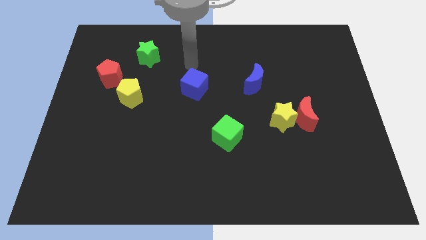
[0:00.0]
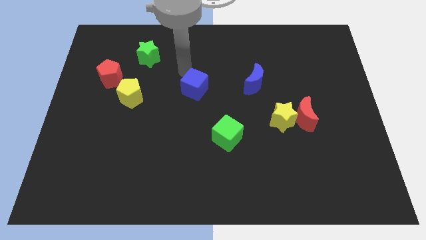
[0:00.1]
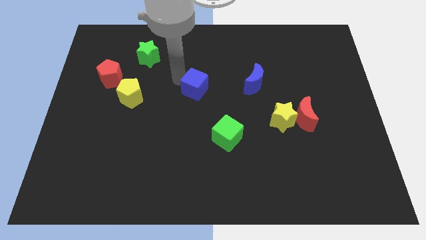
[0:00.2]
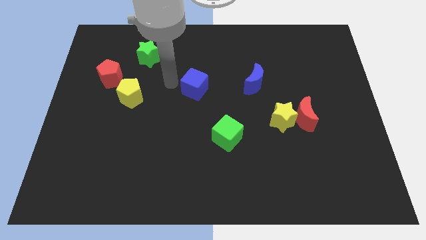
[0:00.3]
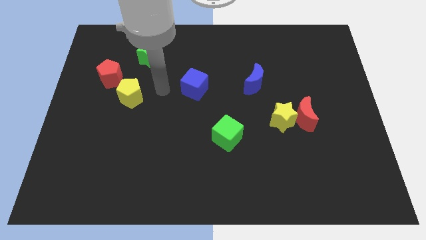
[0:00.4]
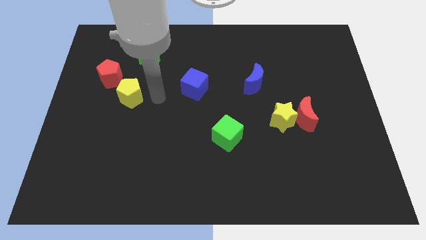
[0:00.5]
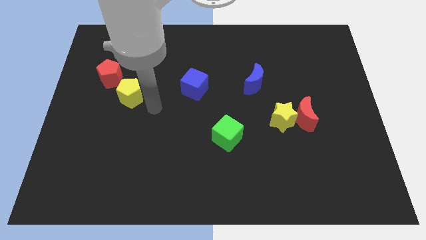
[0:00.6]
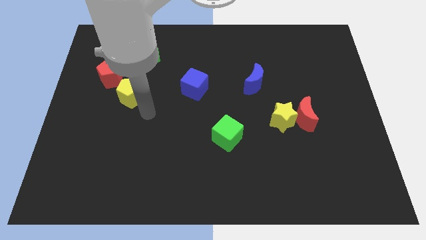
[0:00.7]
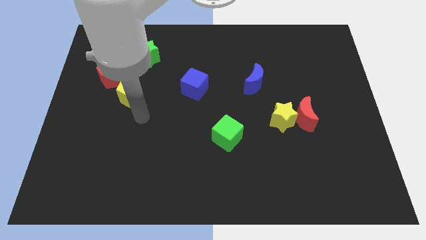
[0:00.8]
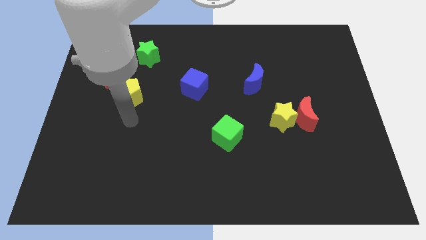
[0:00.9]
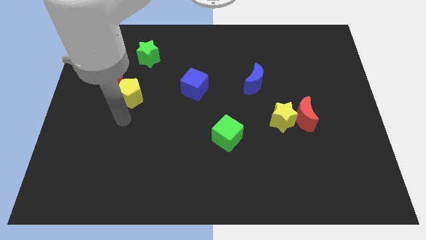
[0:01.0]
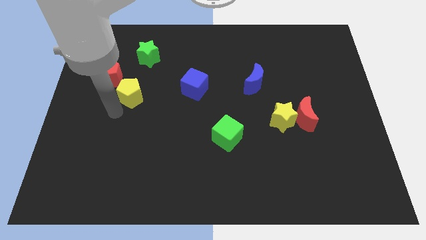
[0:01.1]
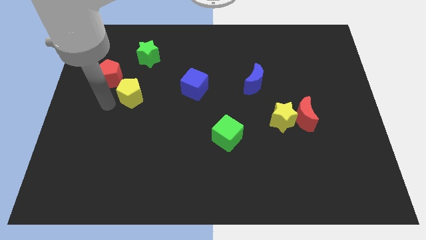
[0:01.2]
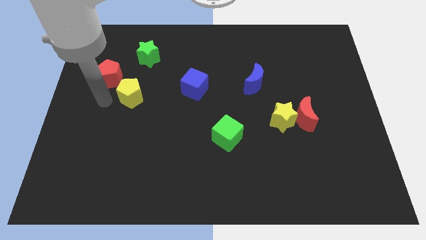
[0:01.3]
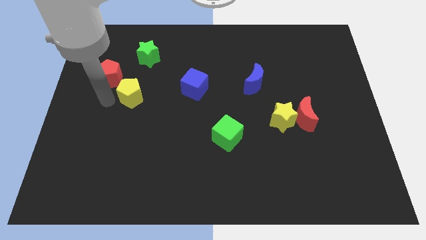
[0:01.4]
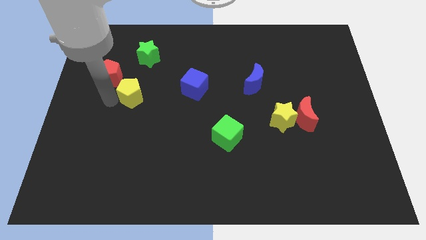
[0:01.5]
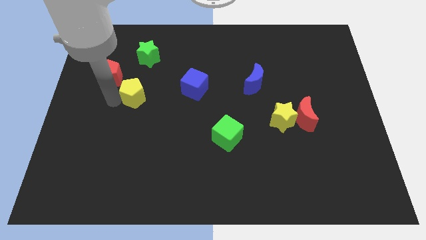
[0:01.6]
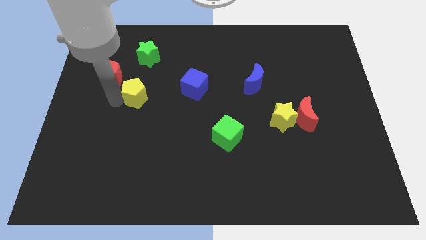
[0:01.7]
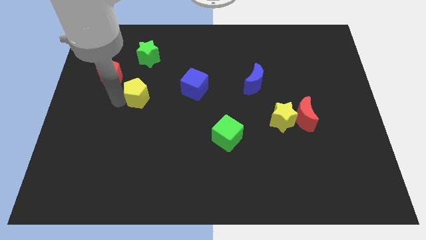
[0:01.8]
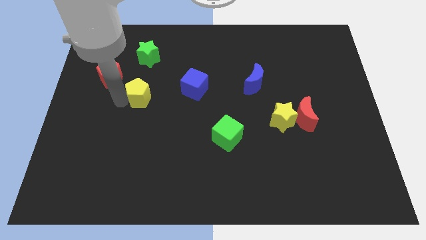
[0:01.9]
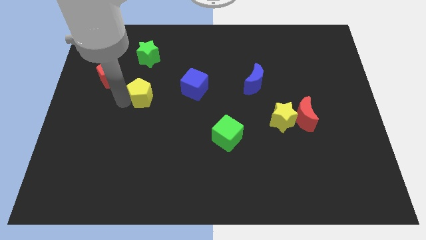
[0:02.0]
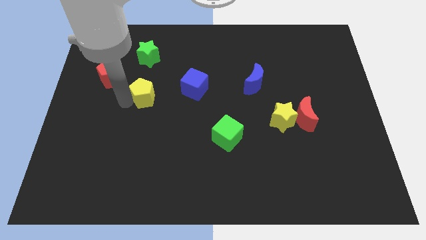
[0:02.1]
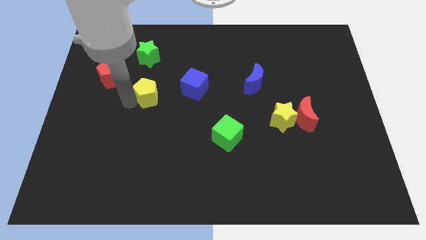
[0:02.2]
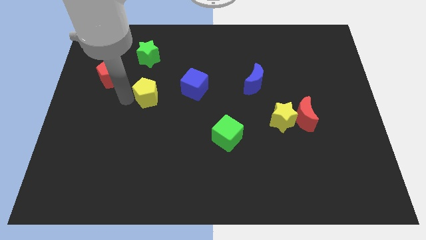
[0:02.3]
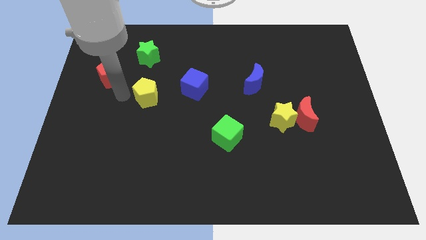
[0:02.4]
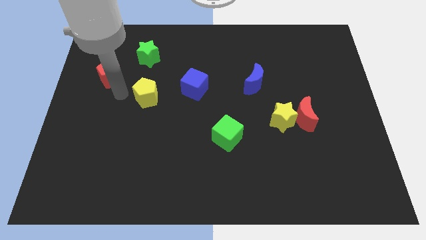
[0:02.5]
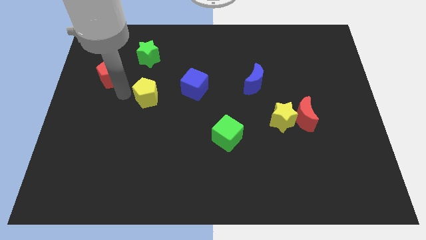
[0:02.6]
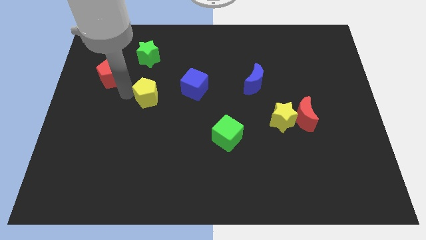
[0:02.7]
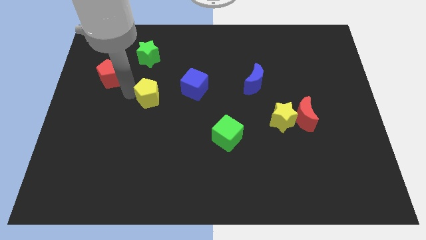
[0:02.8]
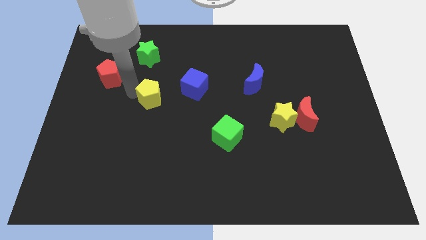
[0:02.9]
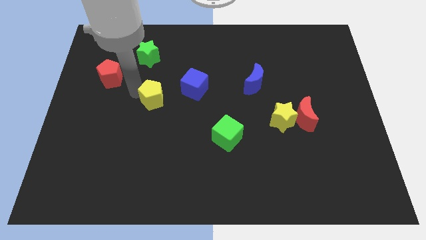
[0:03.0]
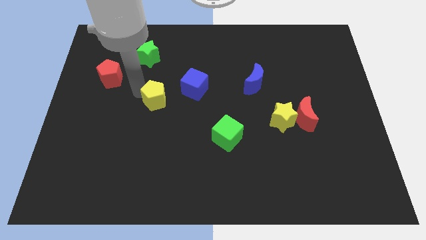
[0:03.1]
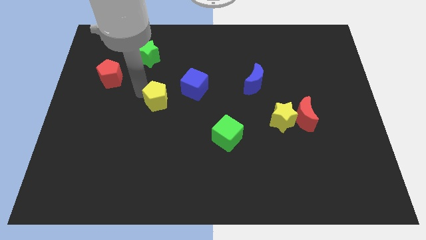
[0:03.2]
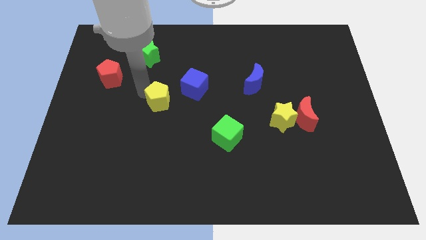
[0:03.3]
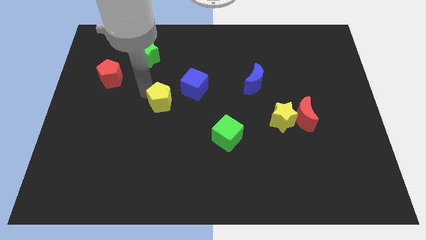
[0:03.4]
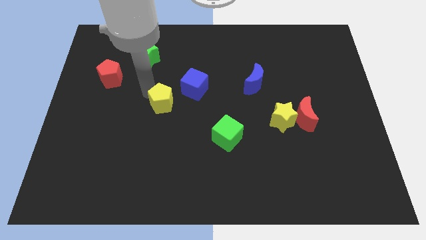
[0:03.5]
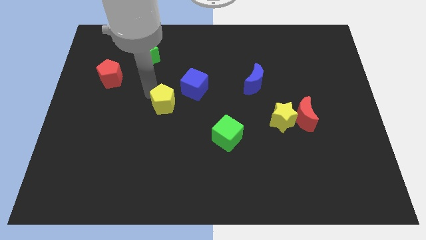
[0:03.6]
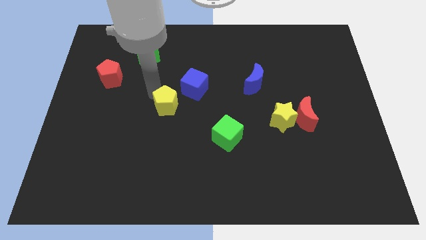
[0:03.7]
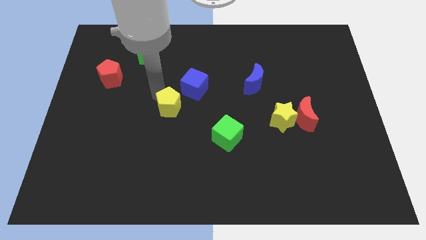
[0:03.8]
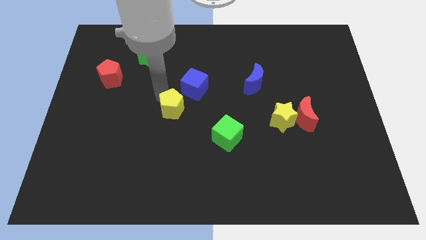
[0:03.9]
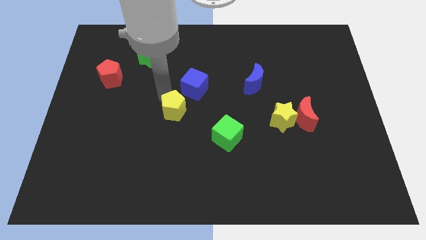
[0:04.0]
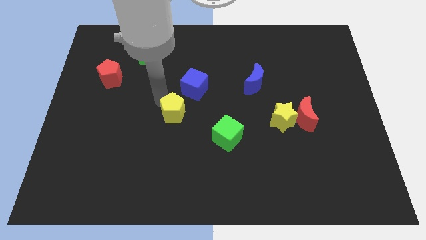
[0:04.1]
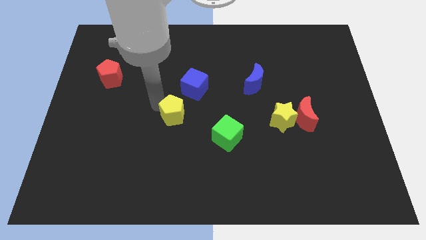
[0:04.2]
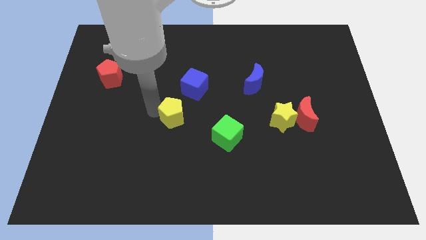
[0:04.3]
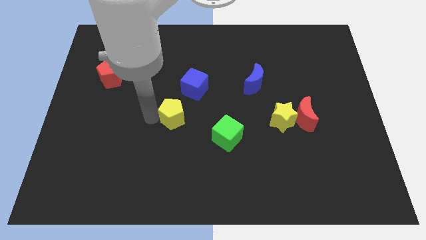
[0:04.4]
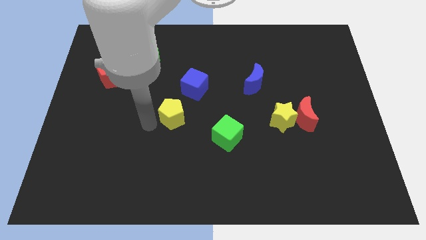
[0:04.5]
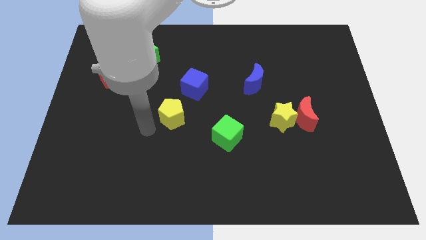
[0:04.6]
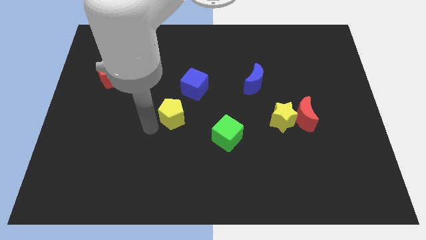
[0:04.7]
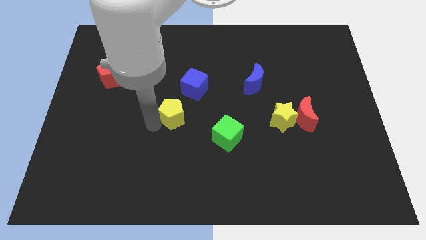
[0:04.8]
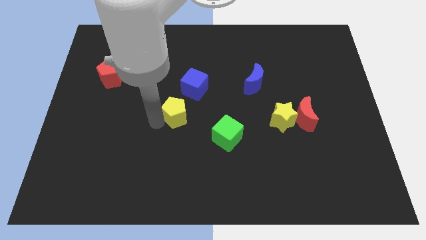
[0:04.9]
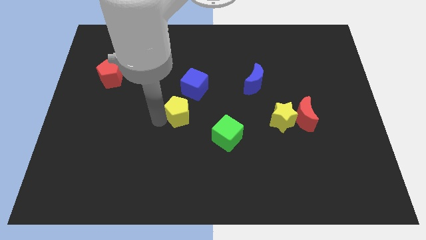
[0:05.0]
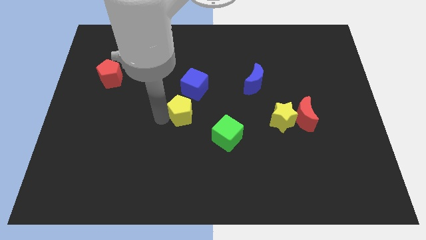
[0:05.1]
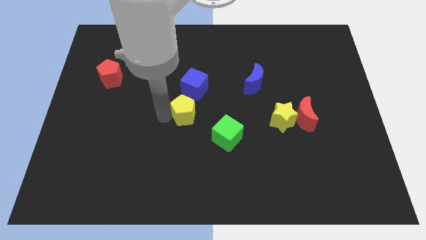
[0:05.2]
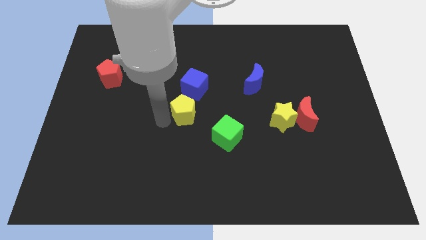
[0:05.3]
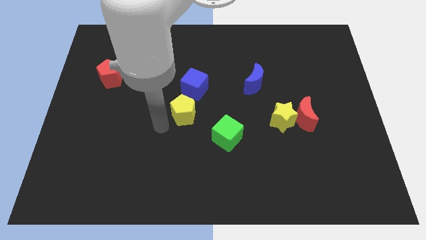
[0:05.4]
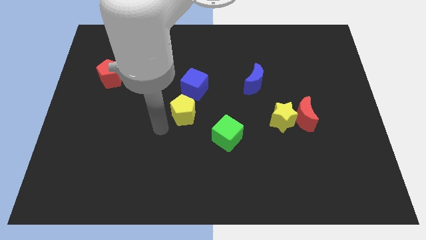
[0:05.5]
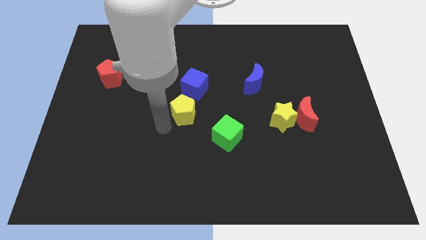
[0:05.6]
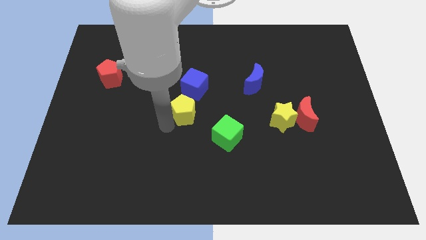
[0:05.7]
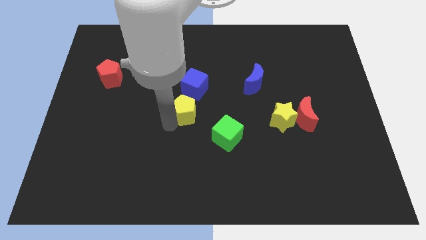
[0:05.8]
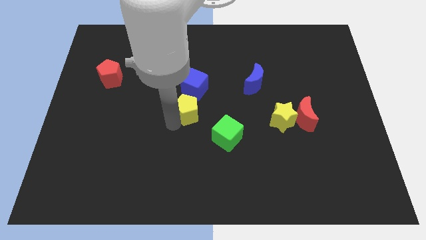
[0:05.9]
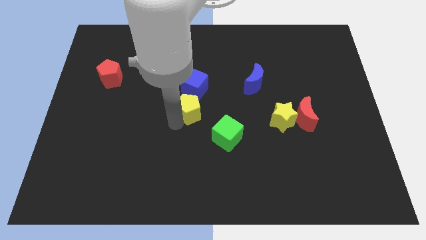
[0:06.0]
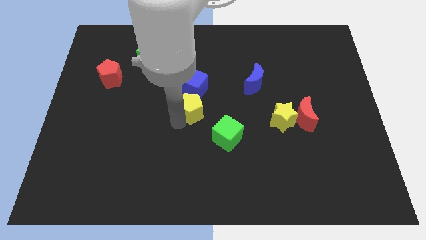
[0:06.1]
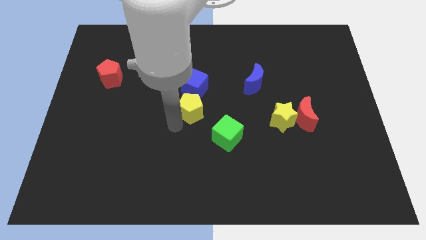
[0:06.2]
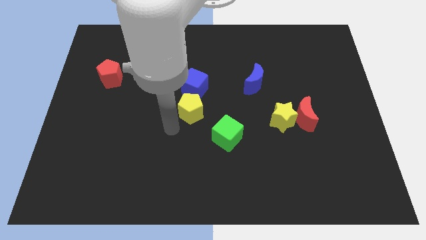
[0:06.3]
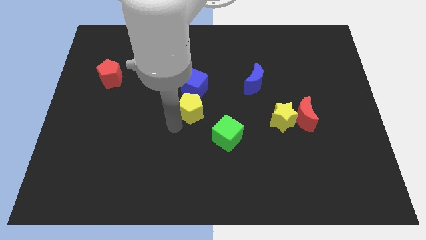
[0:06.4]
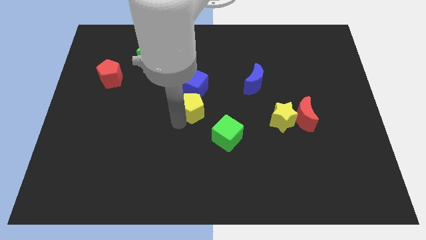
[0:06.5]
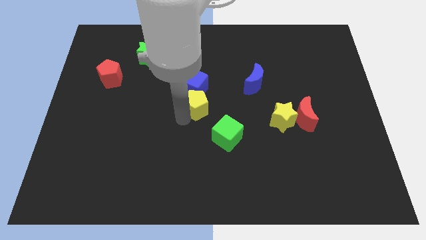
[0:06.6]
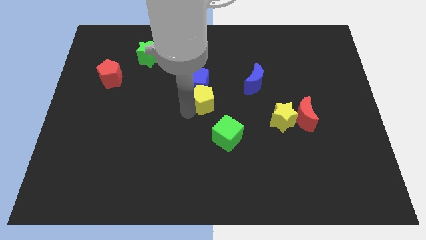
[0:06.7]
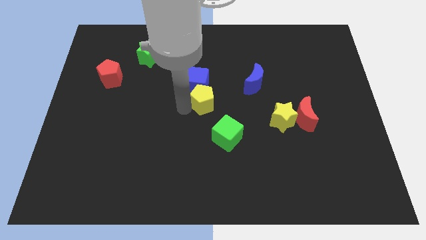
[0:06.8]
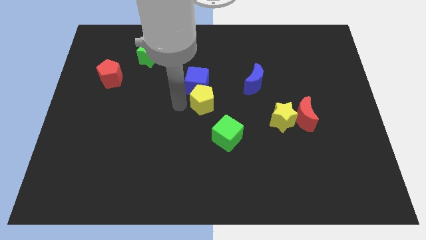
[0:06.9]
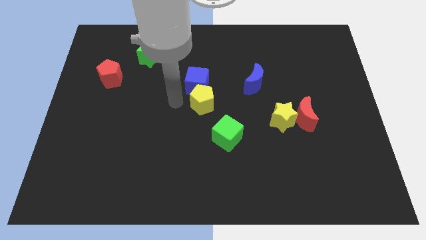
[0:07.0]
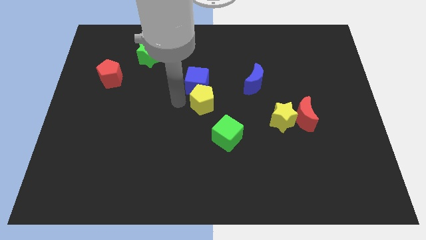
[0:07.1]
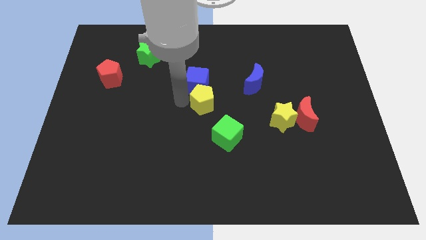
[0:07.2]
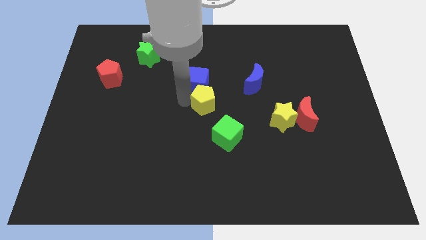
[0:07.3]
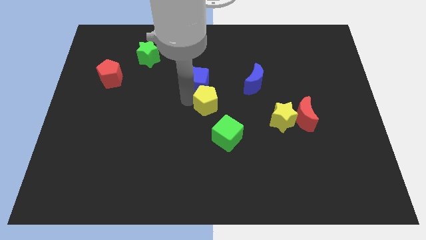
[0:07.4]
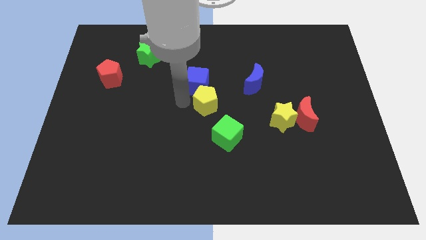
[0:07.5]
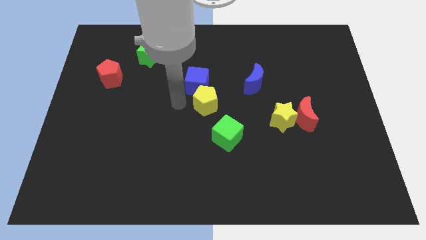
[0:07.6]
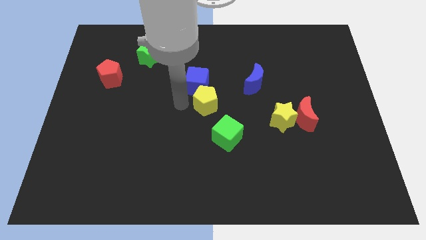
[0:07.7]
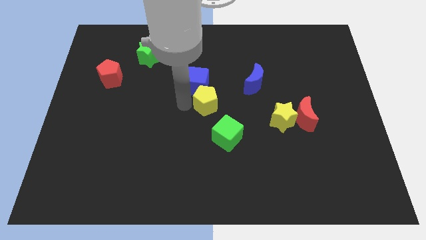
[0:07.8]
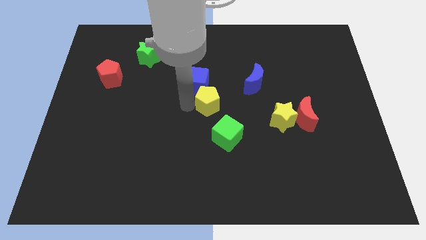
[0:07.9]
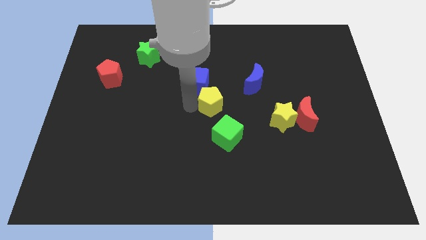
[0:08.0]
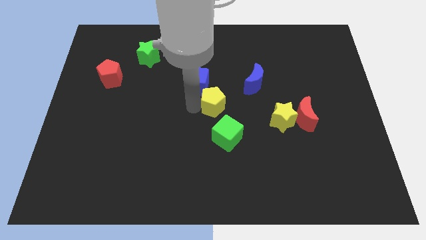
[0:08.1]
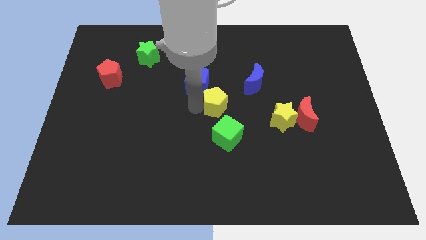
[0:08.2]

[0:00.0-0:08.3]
move the yellow pentagon to the right
